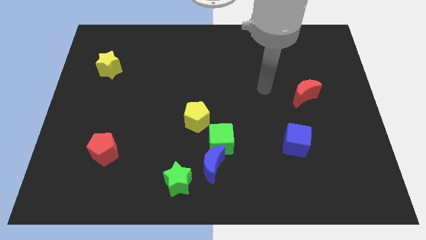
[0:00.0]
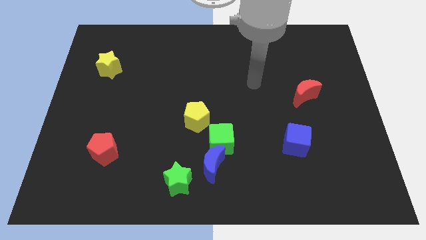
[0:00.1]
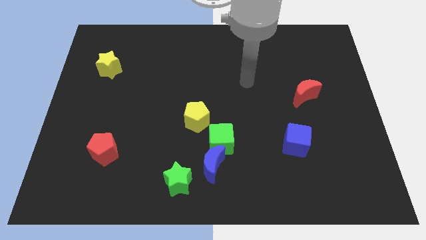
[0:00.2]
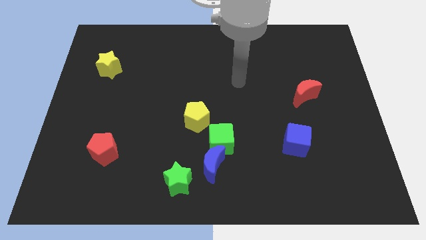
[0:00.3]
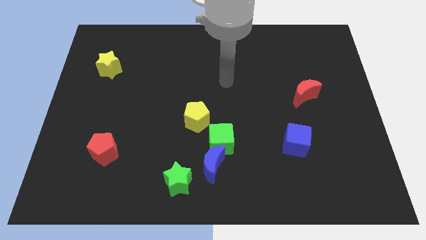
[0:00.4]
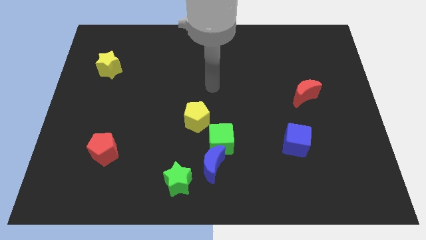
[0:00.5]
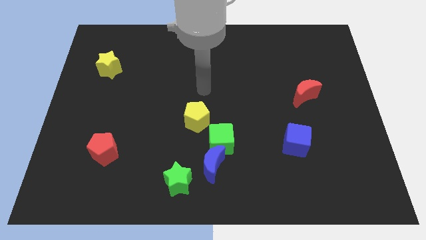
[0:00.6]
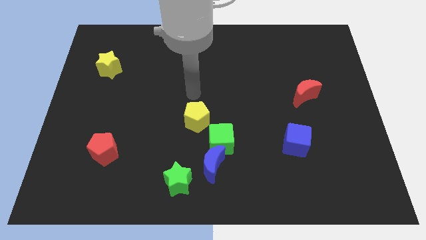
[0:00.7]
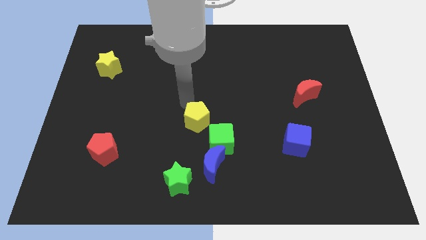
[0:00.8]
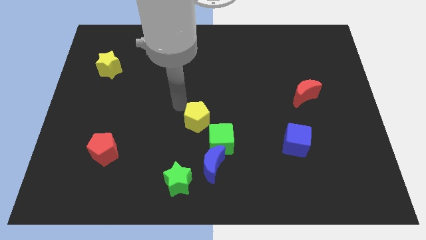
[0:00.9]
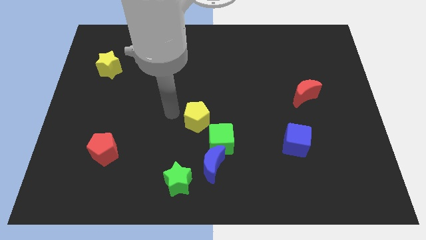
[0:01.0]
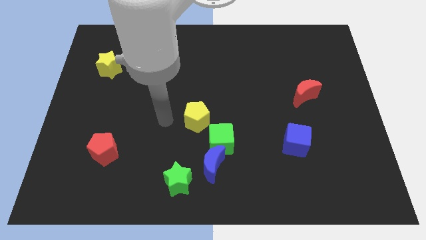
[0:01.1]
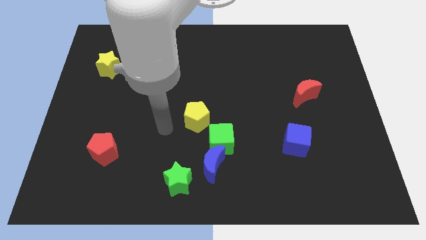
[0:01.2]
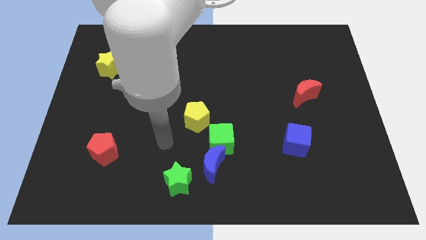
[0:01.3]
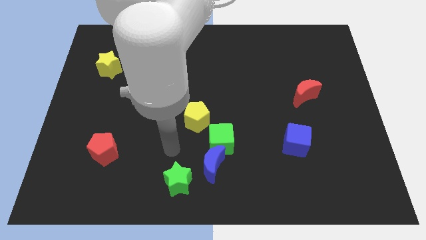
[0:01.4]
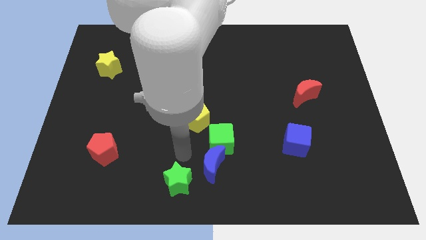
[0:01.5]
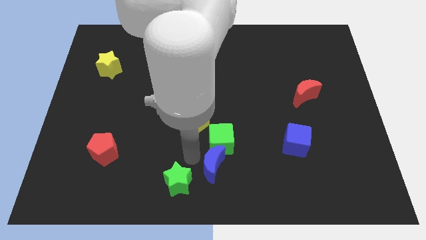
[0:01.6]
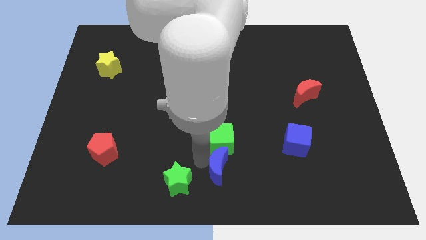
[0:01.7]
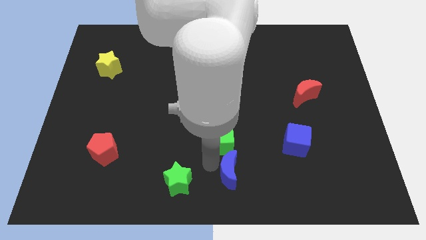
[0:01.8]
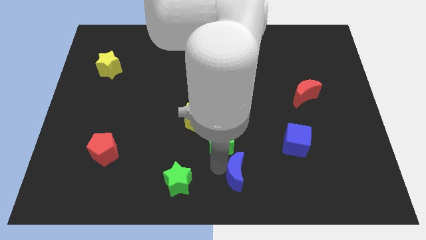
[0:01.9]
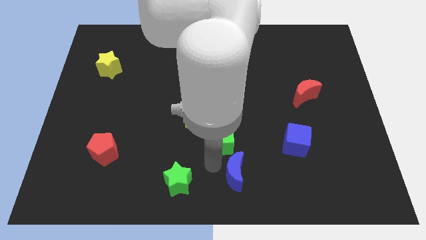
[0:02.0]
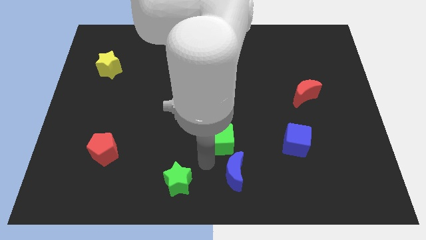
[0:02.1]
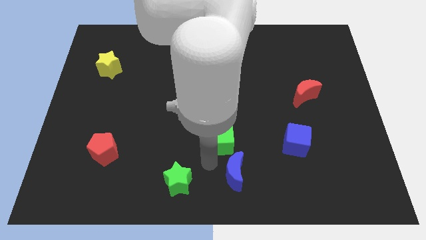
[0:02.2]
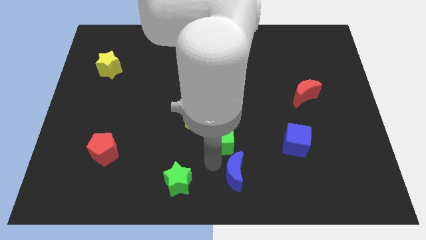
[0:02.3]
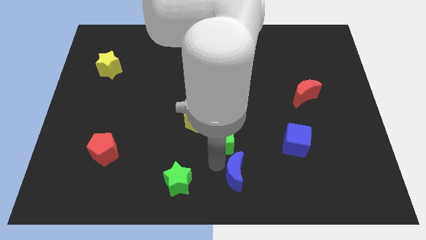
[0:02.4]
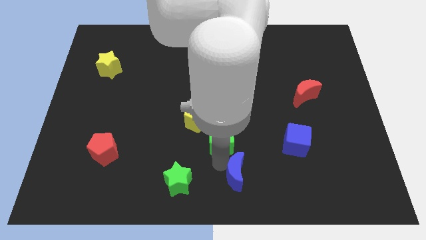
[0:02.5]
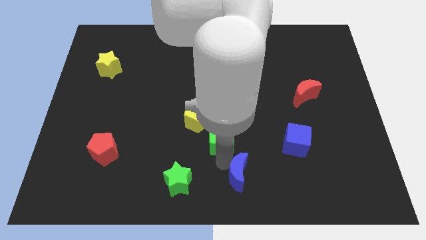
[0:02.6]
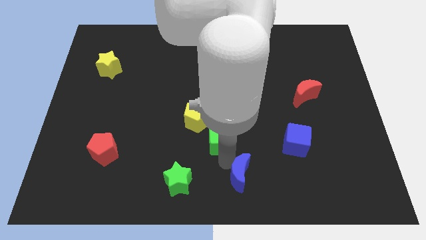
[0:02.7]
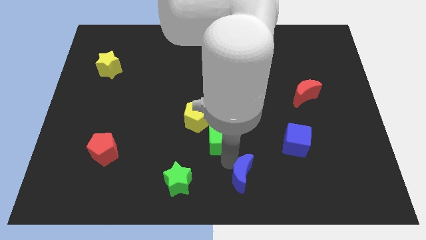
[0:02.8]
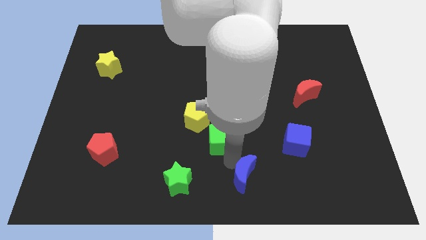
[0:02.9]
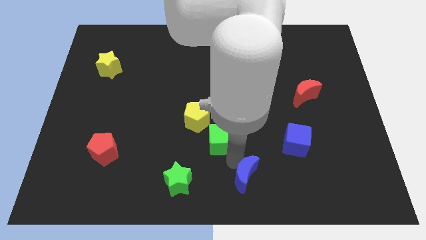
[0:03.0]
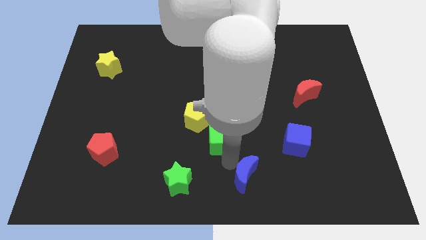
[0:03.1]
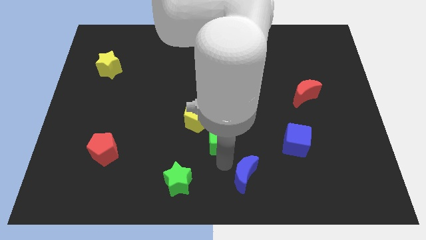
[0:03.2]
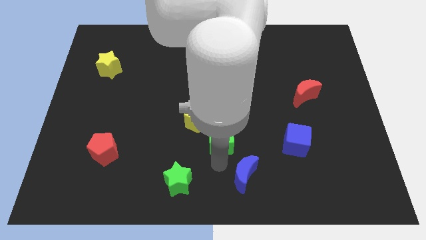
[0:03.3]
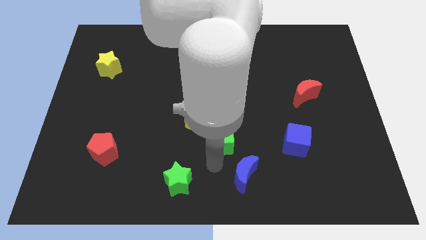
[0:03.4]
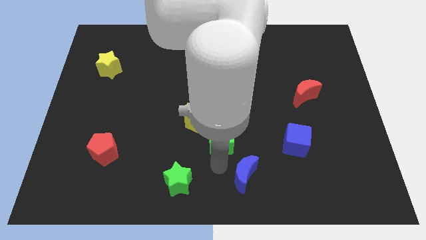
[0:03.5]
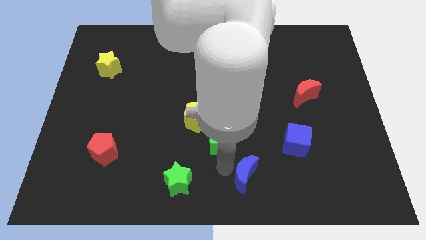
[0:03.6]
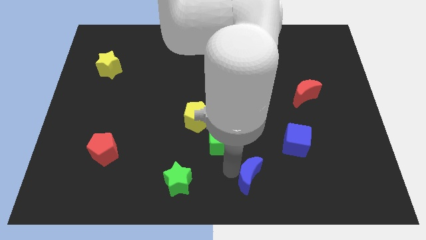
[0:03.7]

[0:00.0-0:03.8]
separate the blue moon from the green cube and green star

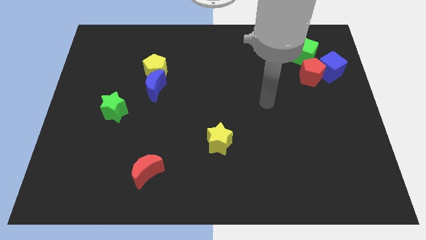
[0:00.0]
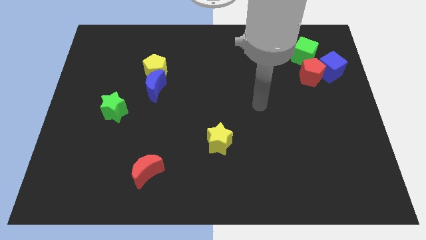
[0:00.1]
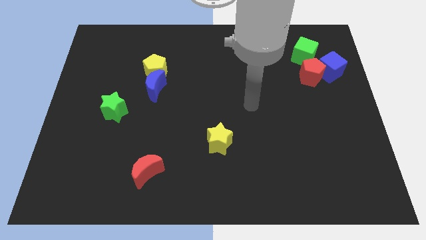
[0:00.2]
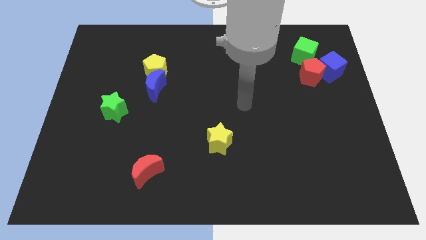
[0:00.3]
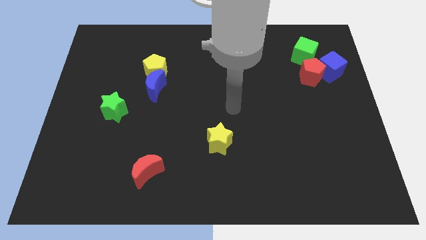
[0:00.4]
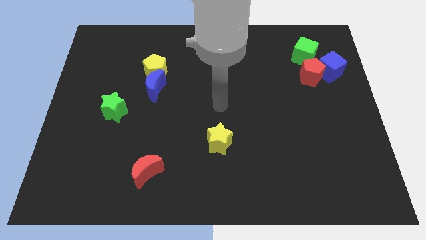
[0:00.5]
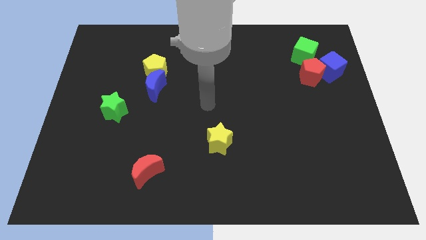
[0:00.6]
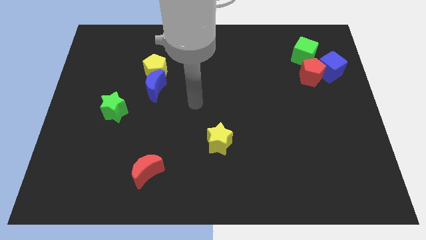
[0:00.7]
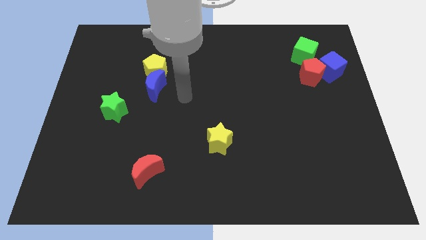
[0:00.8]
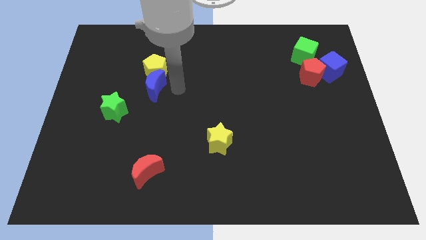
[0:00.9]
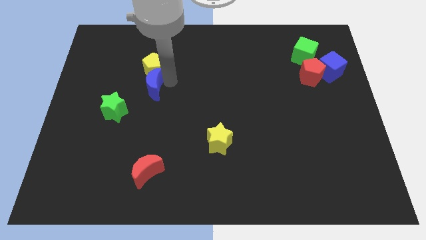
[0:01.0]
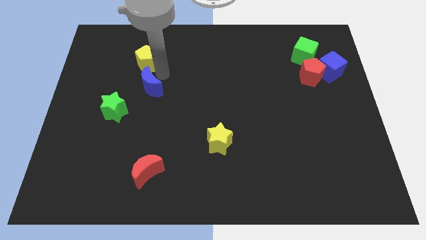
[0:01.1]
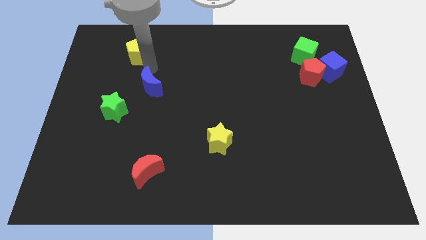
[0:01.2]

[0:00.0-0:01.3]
pull the blue moon apart from the yellow pentagon

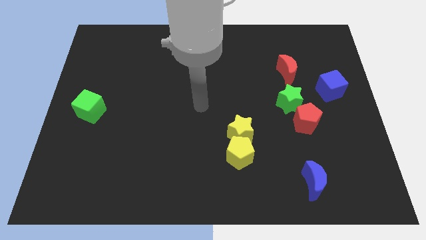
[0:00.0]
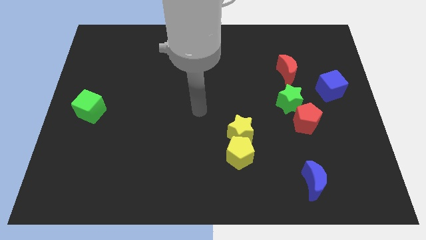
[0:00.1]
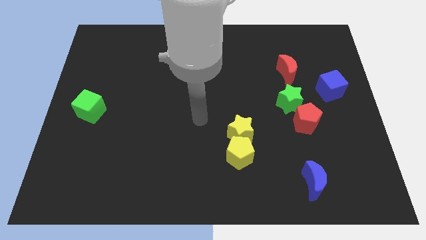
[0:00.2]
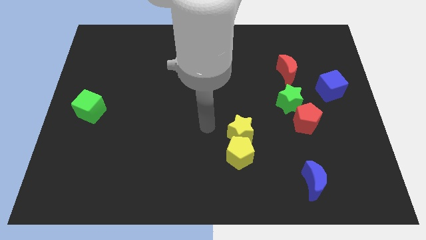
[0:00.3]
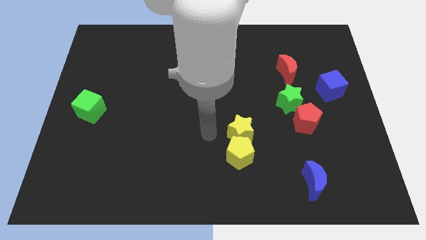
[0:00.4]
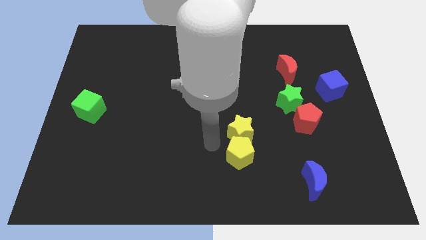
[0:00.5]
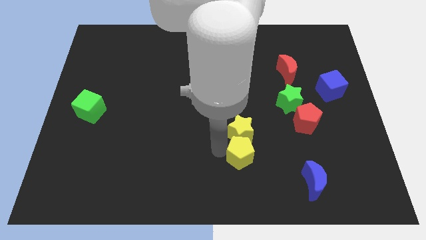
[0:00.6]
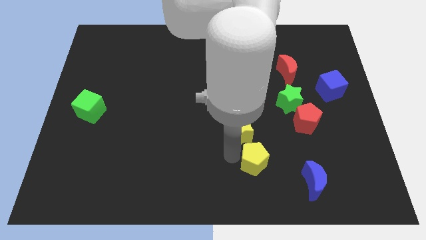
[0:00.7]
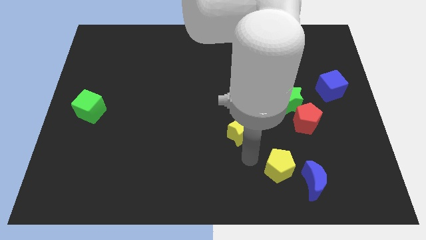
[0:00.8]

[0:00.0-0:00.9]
pull the yellow star apart from the yellow pentagon

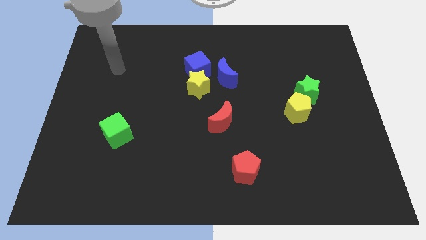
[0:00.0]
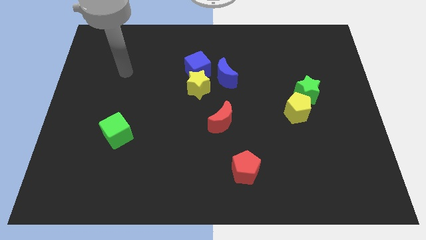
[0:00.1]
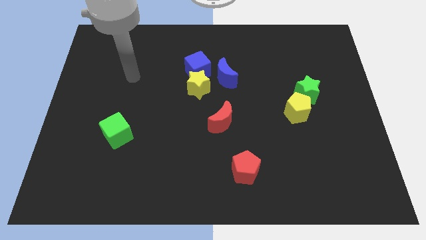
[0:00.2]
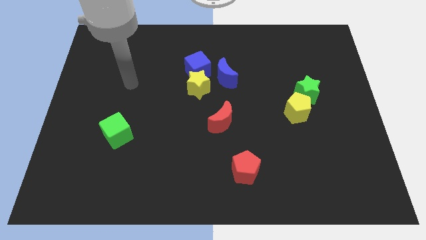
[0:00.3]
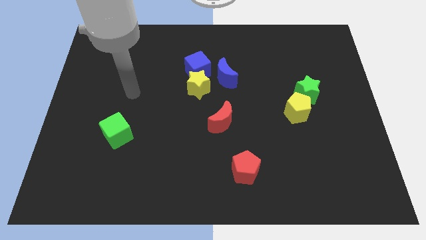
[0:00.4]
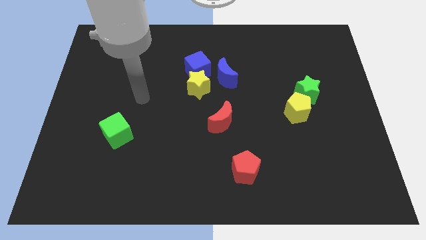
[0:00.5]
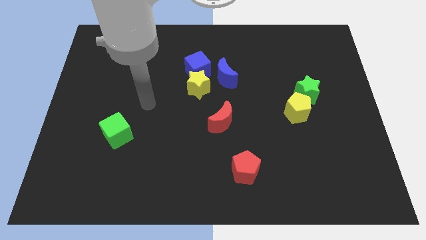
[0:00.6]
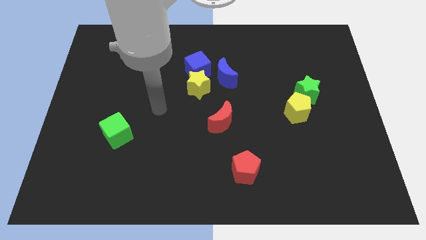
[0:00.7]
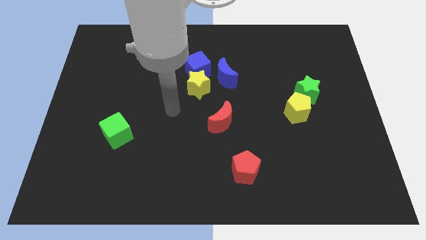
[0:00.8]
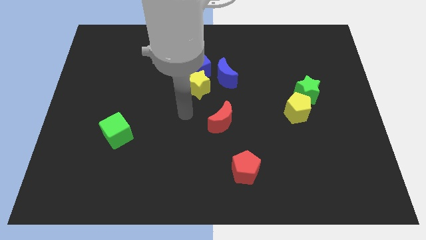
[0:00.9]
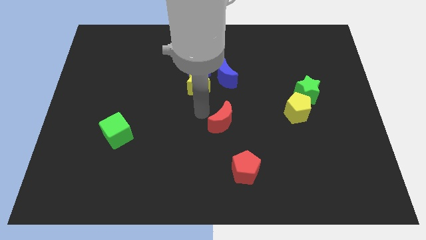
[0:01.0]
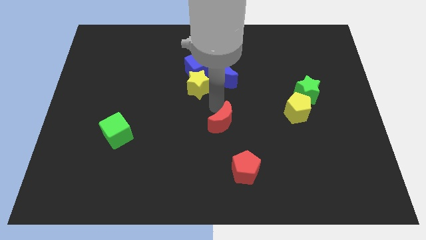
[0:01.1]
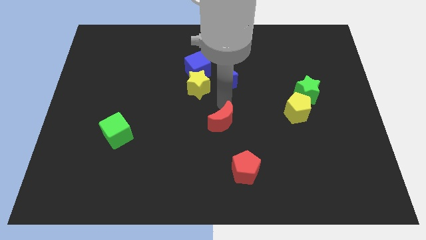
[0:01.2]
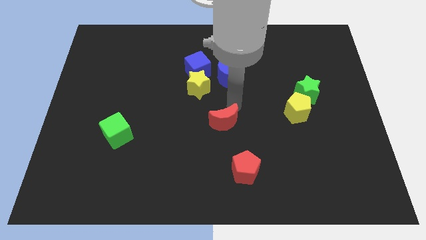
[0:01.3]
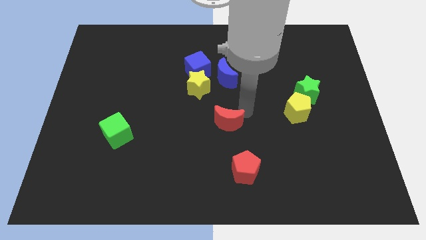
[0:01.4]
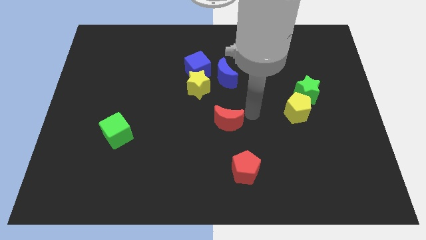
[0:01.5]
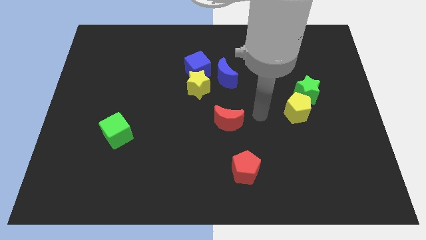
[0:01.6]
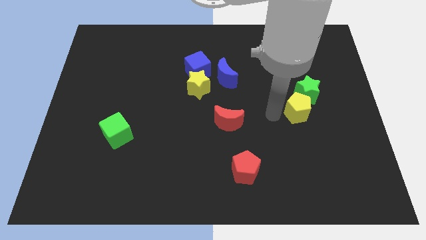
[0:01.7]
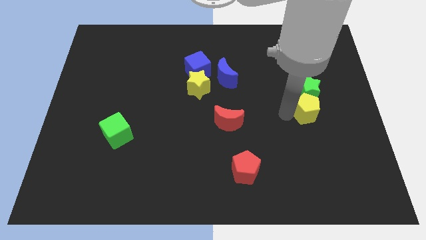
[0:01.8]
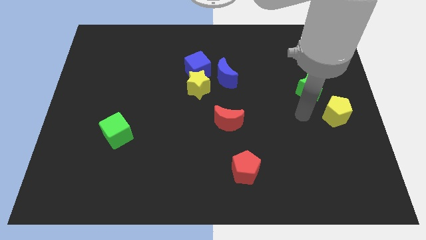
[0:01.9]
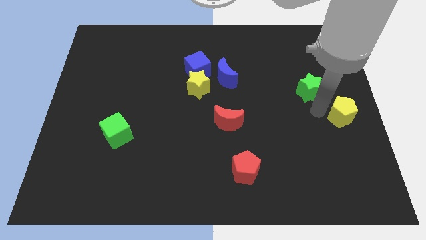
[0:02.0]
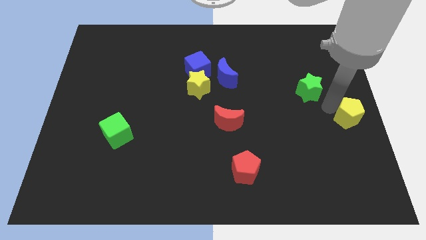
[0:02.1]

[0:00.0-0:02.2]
pull the green star apart from the yellow pentagon

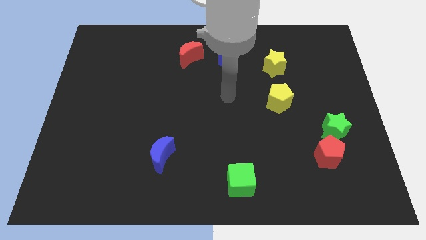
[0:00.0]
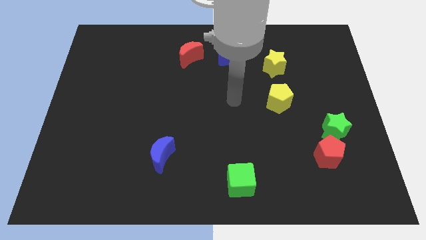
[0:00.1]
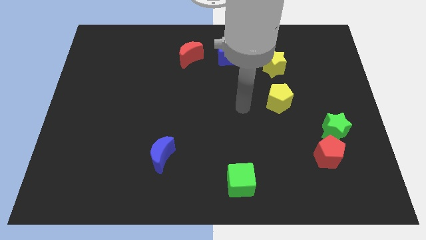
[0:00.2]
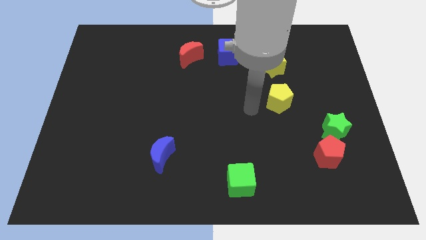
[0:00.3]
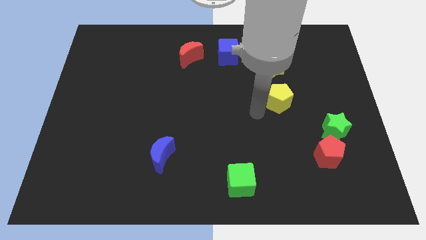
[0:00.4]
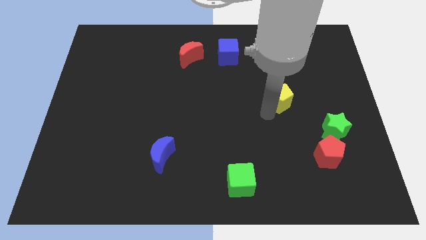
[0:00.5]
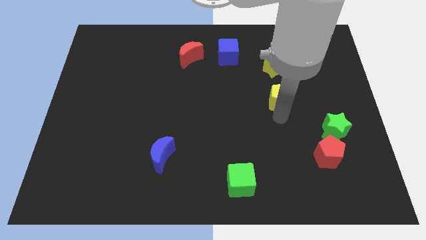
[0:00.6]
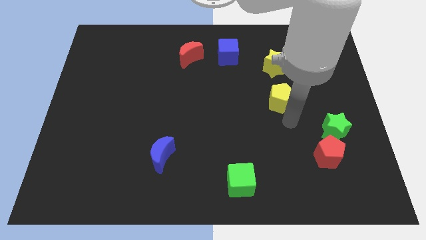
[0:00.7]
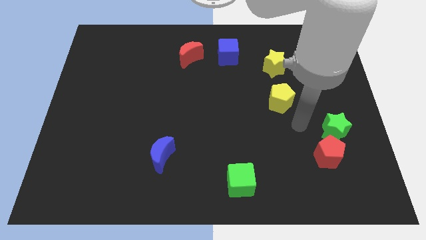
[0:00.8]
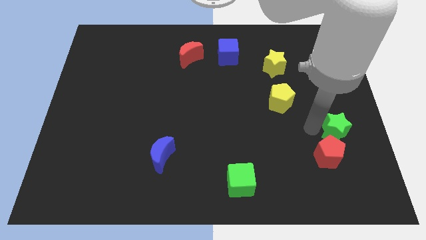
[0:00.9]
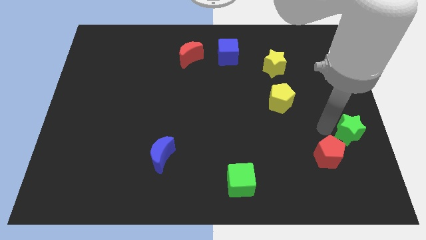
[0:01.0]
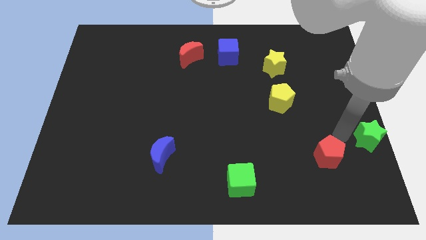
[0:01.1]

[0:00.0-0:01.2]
move the red pentagon away from the green star
